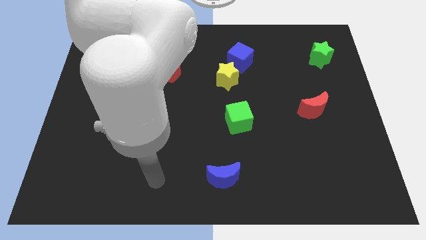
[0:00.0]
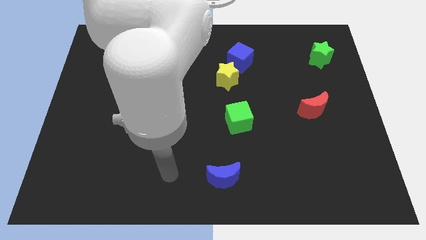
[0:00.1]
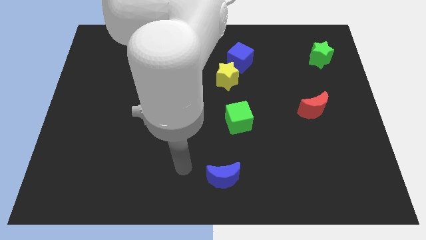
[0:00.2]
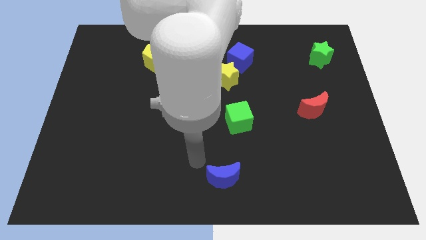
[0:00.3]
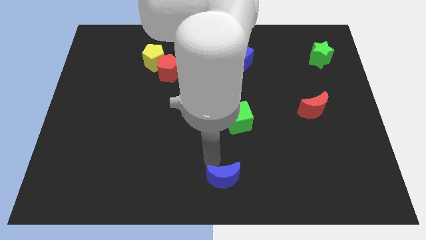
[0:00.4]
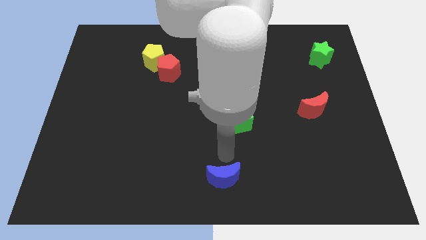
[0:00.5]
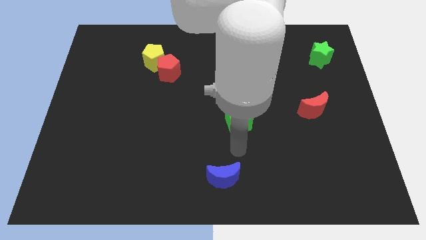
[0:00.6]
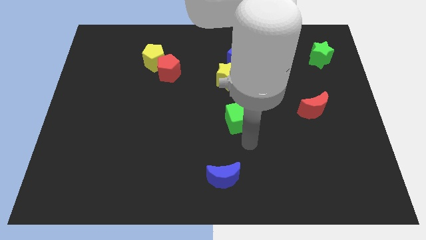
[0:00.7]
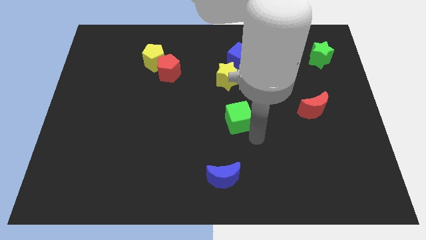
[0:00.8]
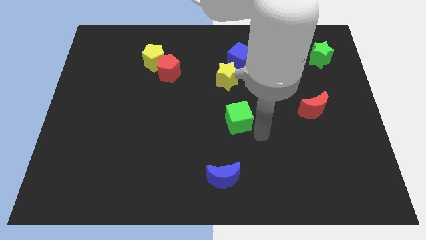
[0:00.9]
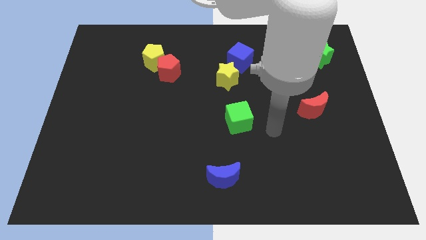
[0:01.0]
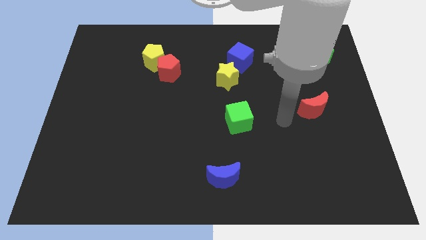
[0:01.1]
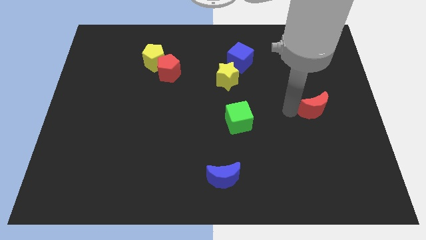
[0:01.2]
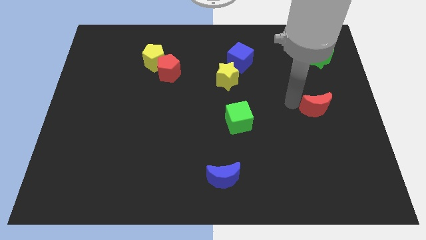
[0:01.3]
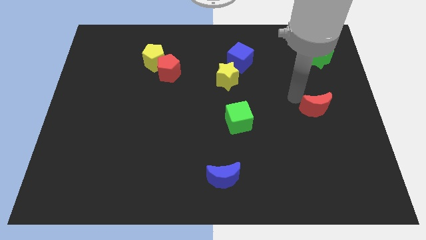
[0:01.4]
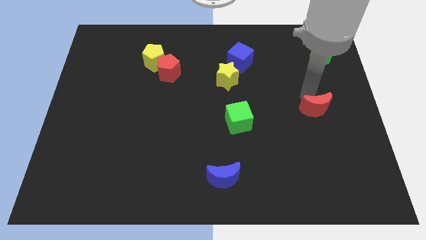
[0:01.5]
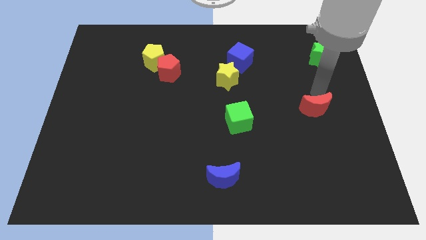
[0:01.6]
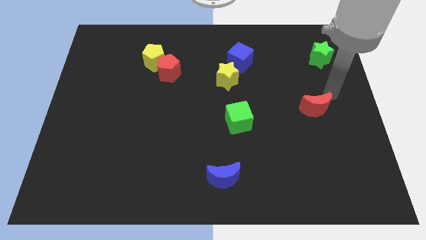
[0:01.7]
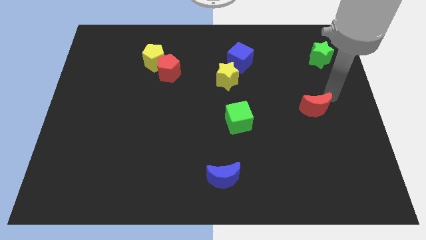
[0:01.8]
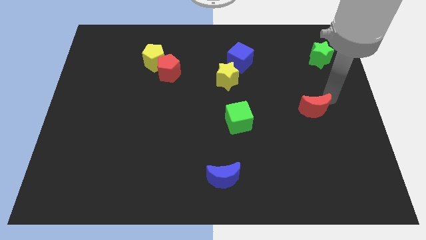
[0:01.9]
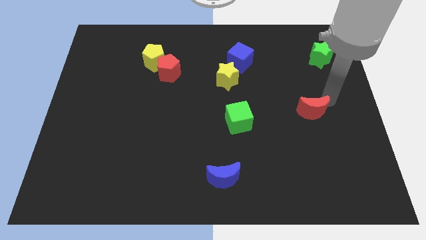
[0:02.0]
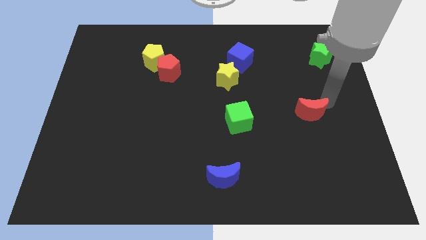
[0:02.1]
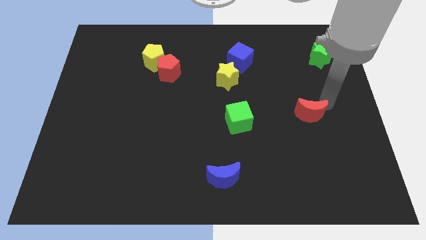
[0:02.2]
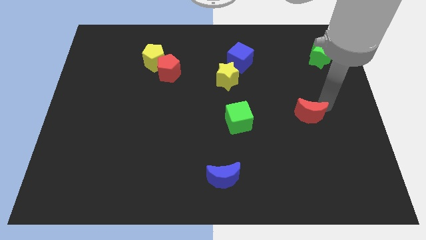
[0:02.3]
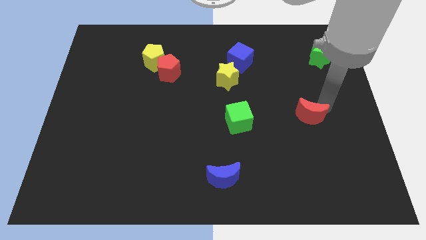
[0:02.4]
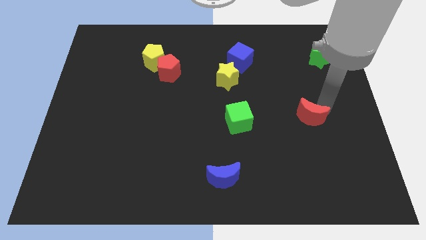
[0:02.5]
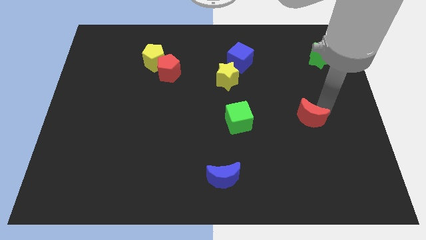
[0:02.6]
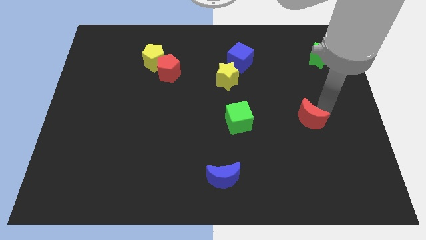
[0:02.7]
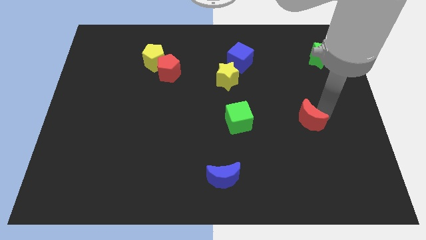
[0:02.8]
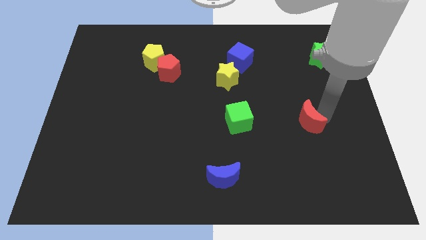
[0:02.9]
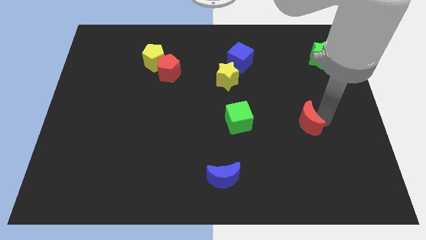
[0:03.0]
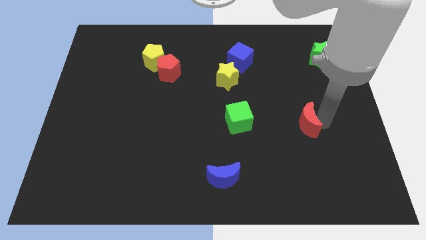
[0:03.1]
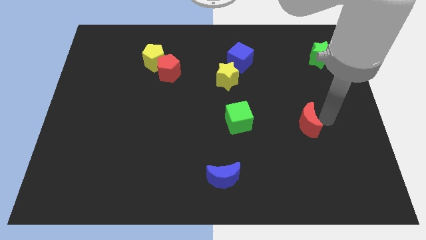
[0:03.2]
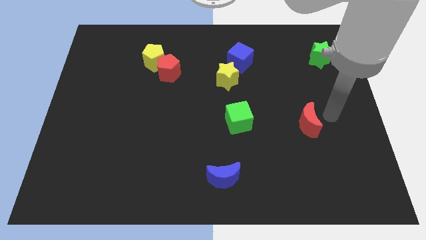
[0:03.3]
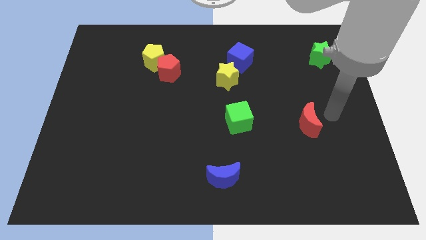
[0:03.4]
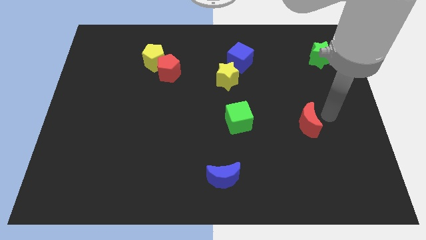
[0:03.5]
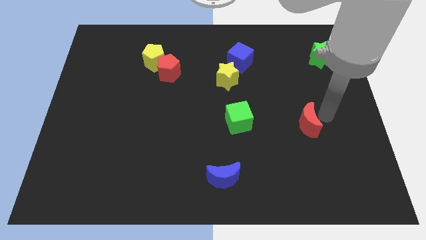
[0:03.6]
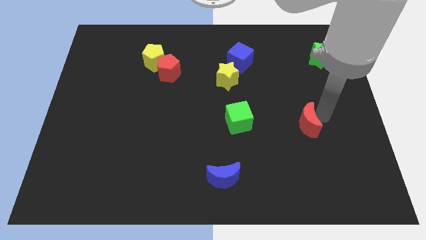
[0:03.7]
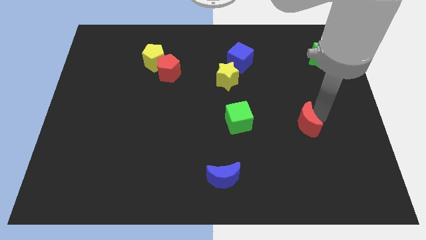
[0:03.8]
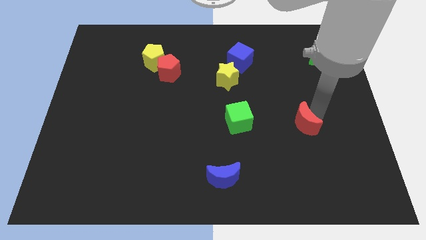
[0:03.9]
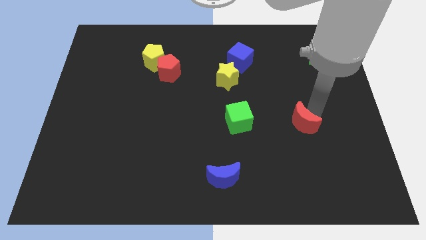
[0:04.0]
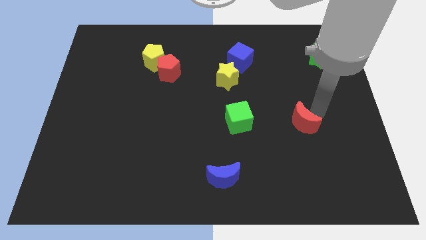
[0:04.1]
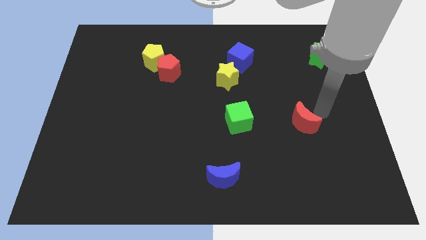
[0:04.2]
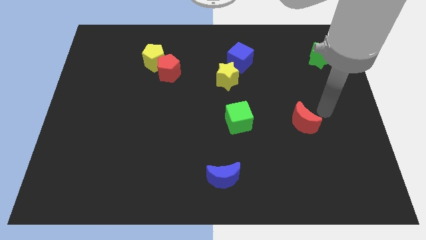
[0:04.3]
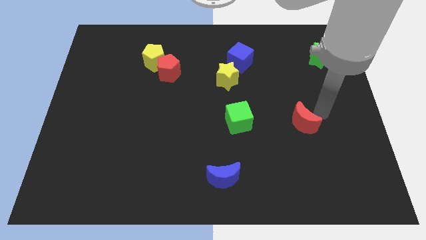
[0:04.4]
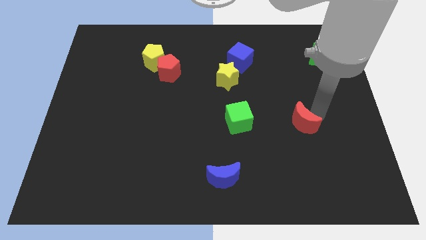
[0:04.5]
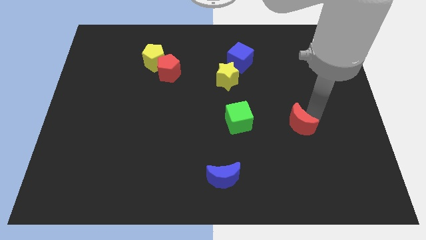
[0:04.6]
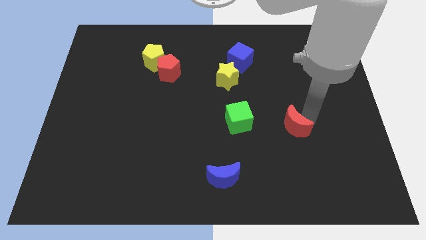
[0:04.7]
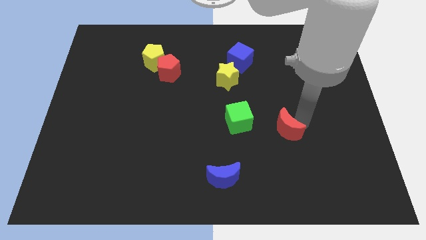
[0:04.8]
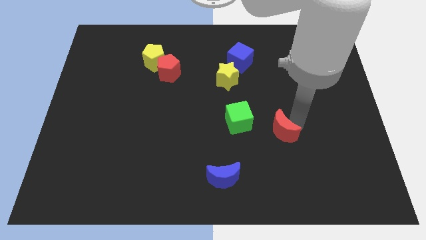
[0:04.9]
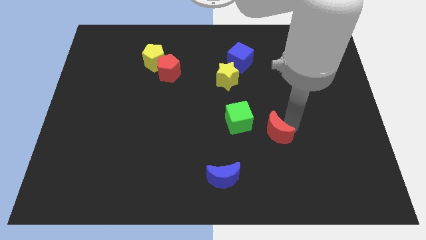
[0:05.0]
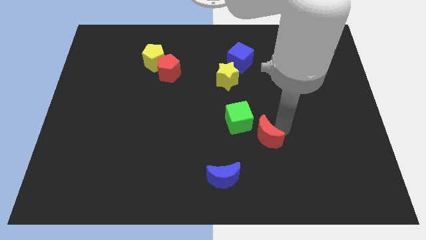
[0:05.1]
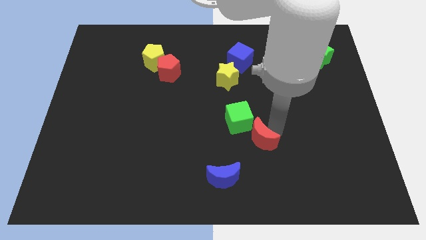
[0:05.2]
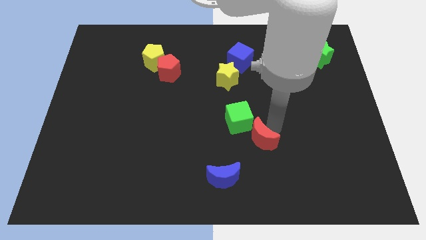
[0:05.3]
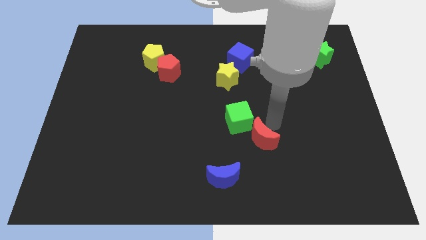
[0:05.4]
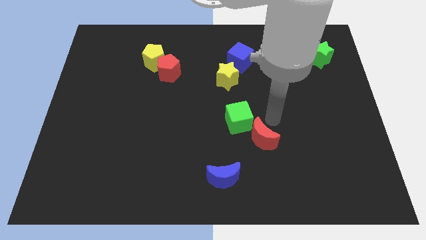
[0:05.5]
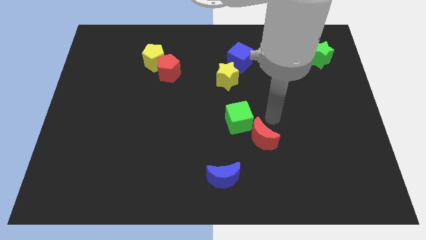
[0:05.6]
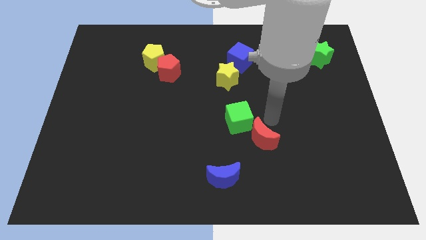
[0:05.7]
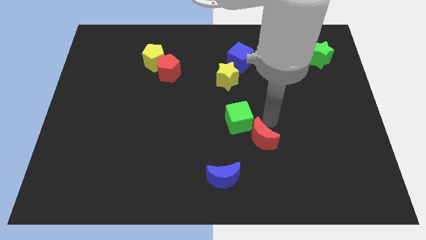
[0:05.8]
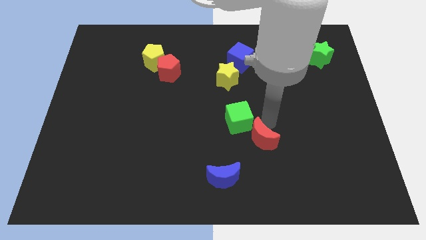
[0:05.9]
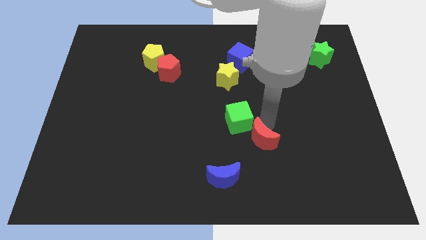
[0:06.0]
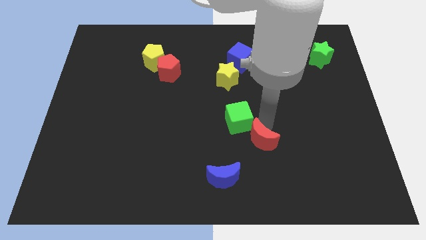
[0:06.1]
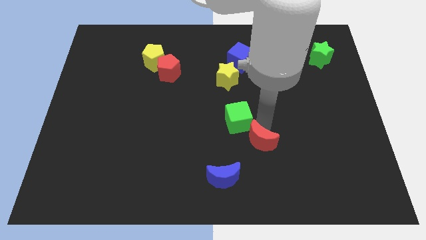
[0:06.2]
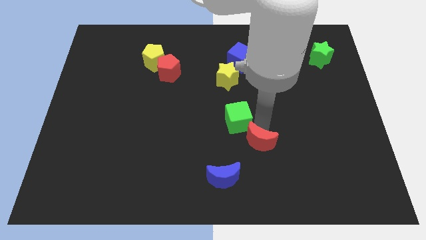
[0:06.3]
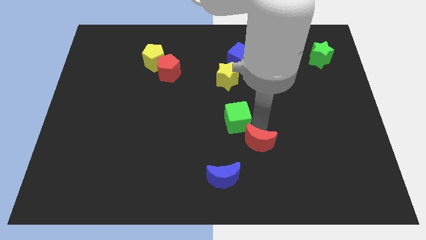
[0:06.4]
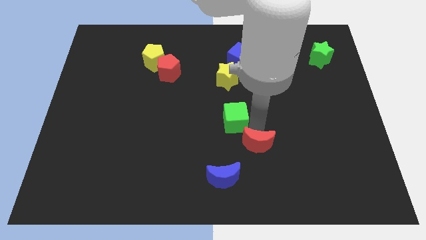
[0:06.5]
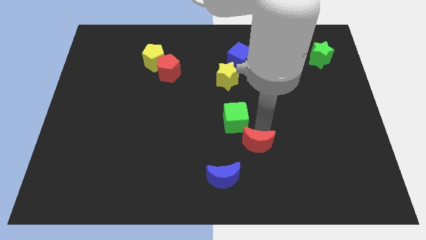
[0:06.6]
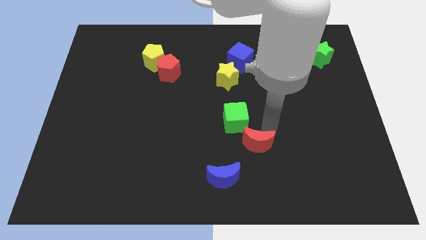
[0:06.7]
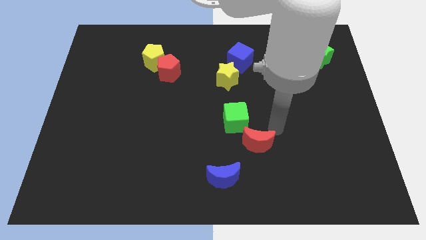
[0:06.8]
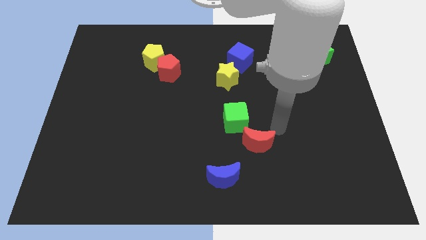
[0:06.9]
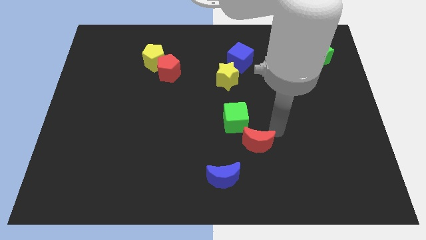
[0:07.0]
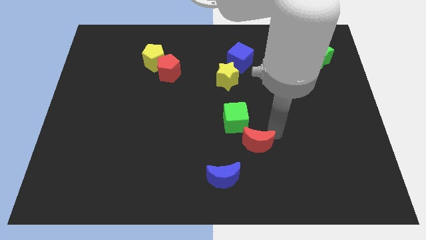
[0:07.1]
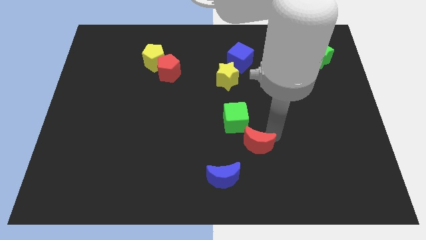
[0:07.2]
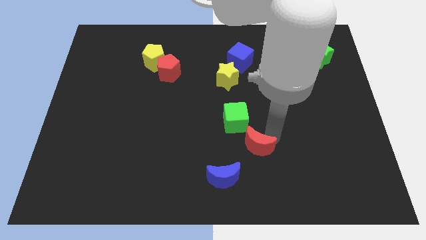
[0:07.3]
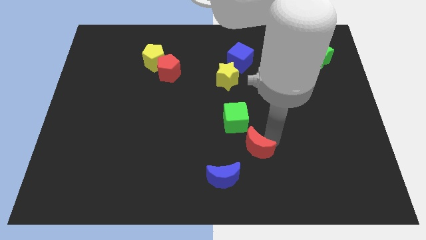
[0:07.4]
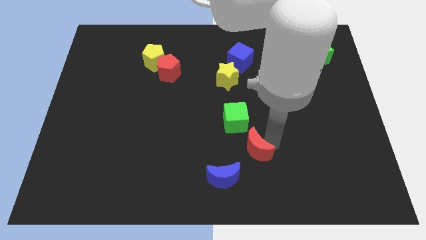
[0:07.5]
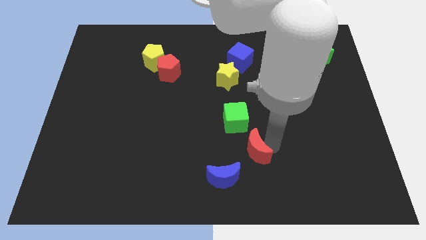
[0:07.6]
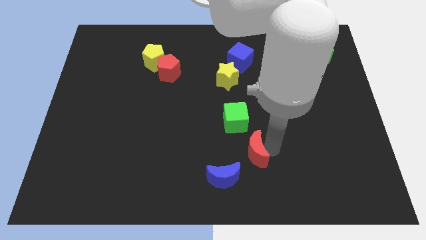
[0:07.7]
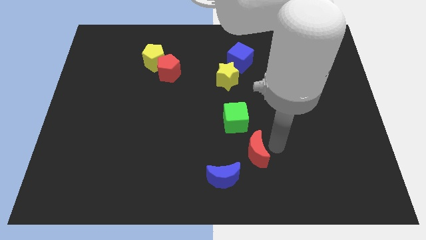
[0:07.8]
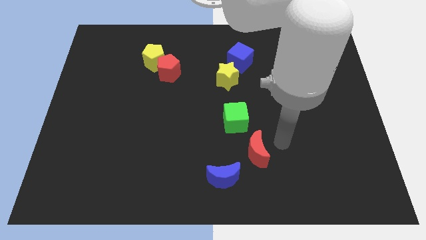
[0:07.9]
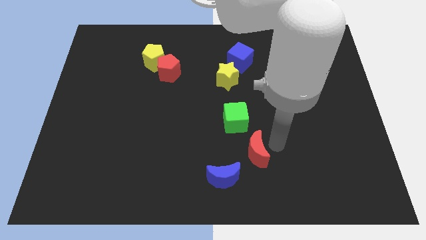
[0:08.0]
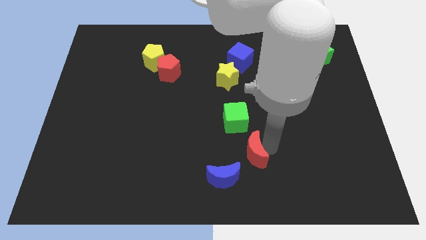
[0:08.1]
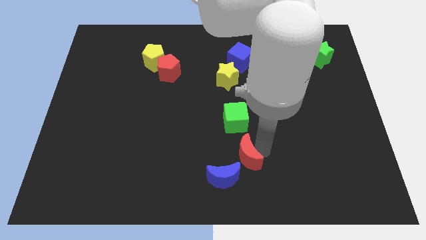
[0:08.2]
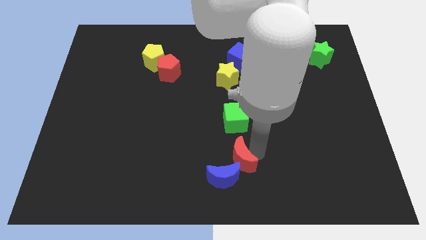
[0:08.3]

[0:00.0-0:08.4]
slide the red moon to the blue moon
